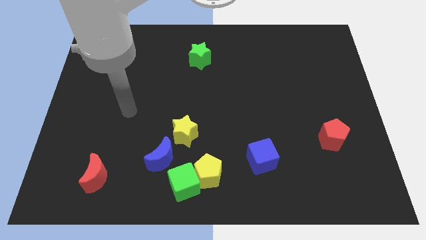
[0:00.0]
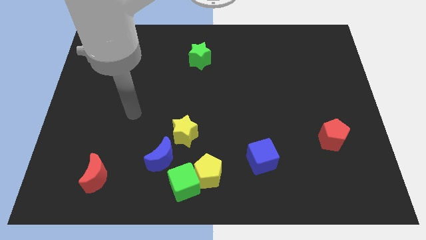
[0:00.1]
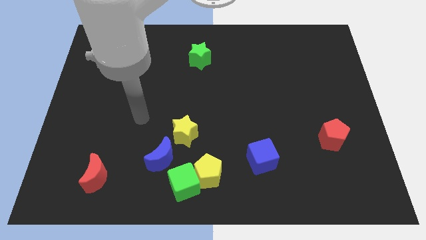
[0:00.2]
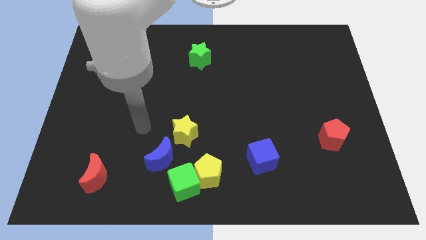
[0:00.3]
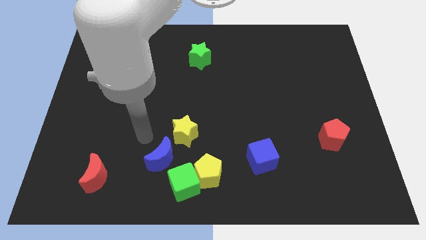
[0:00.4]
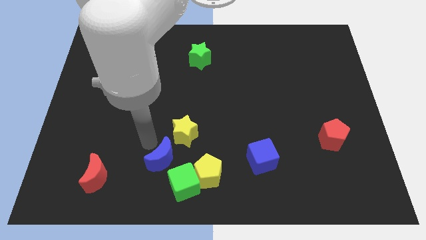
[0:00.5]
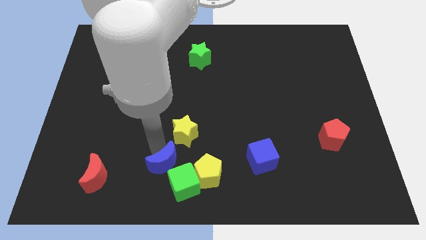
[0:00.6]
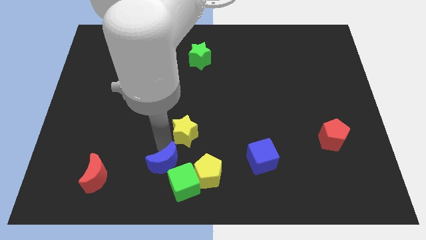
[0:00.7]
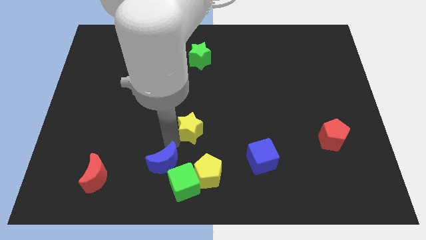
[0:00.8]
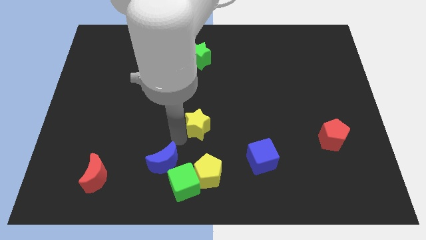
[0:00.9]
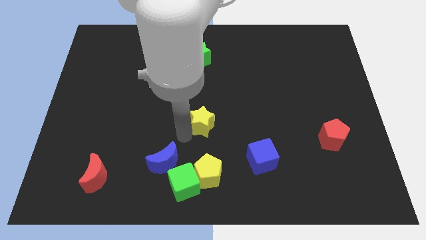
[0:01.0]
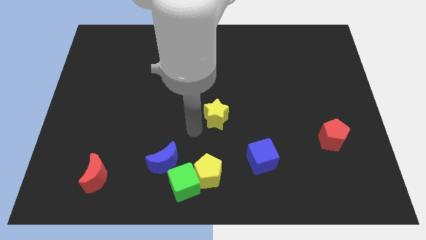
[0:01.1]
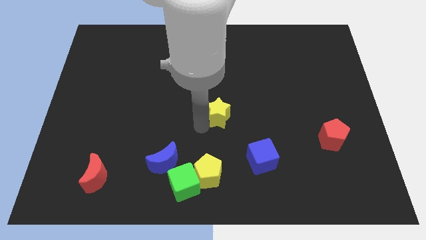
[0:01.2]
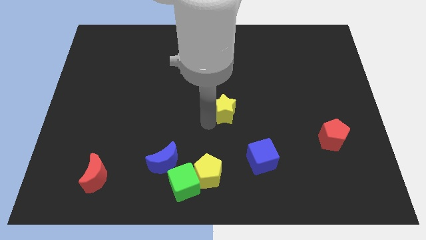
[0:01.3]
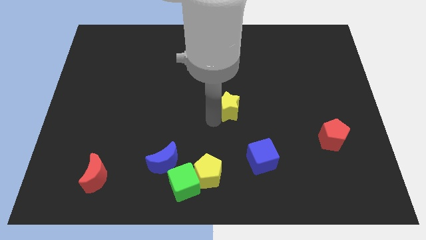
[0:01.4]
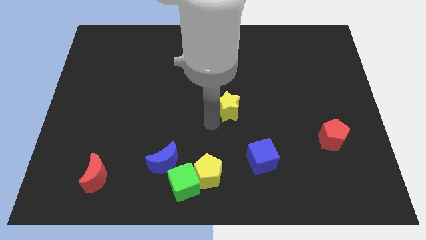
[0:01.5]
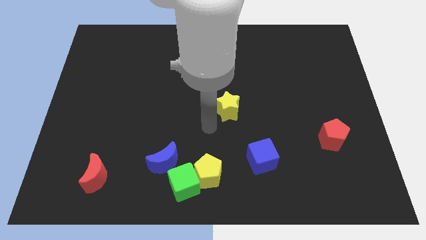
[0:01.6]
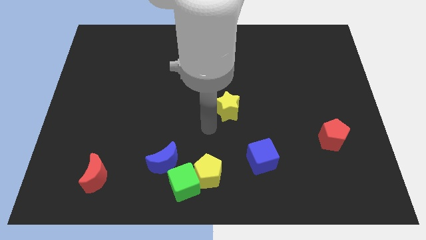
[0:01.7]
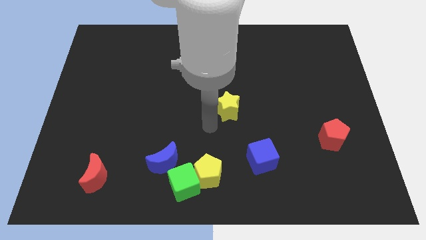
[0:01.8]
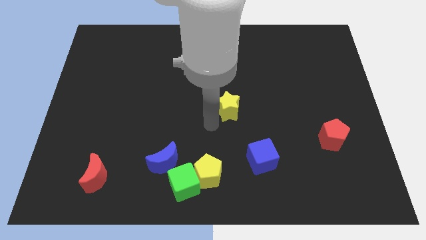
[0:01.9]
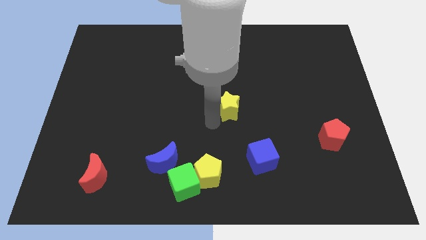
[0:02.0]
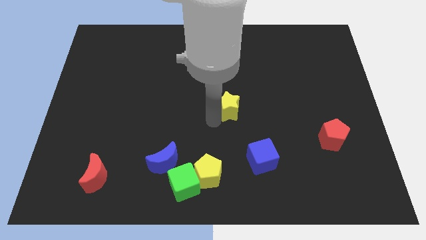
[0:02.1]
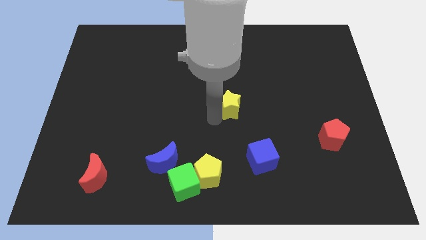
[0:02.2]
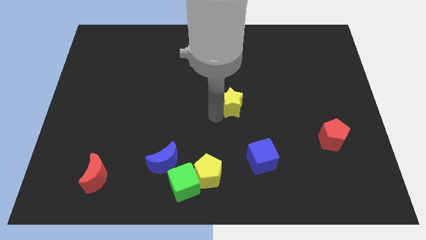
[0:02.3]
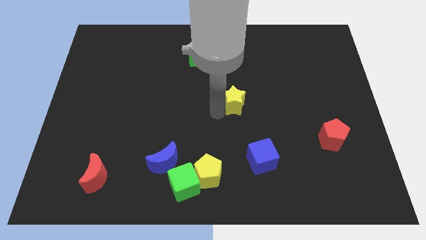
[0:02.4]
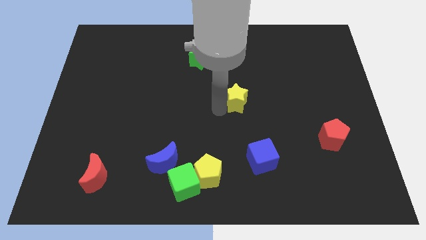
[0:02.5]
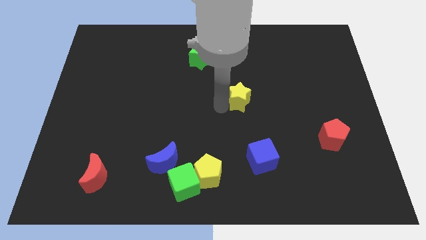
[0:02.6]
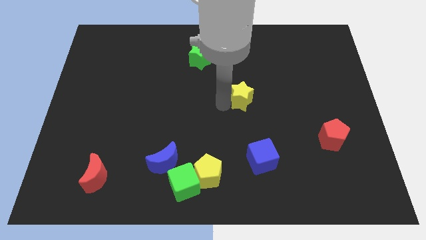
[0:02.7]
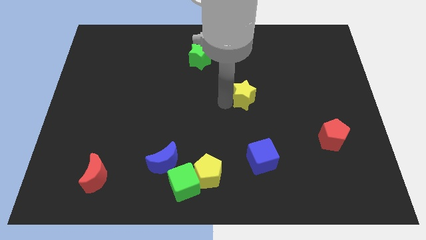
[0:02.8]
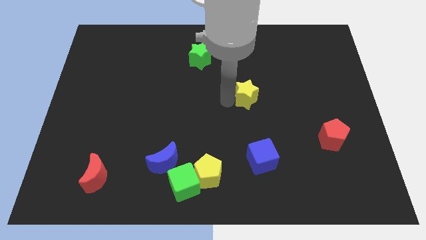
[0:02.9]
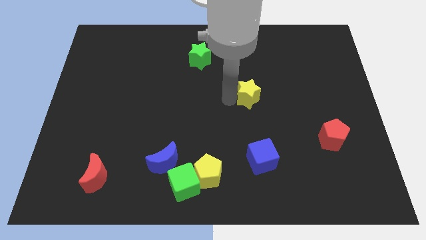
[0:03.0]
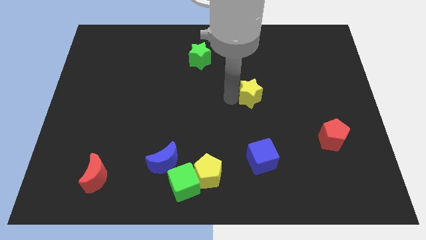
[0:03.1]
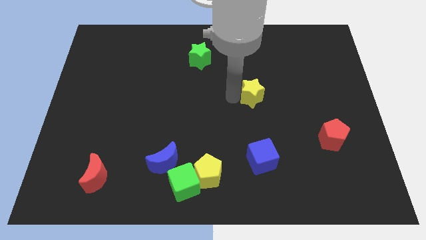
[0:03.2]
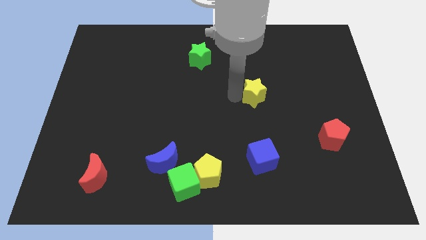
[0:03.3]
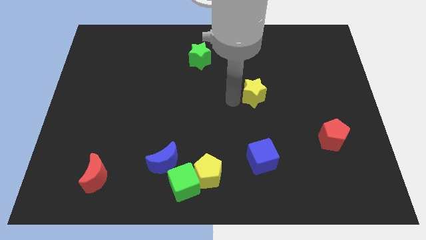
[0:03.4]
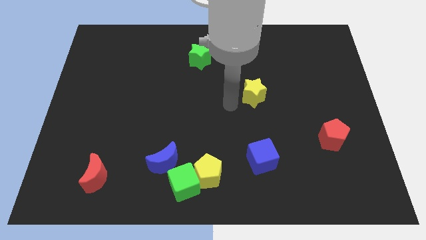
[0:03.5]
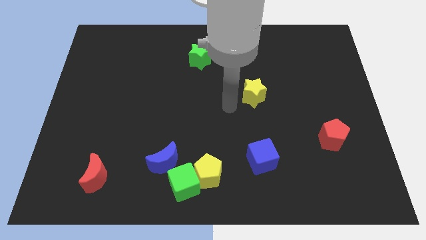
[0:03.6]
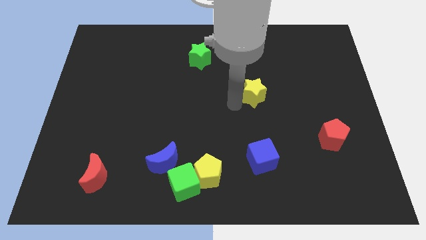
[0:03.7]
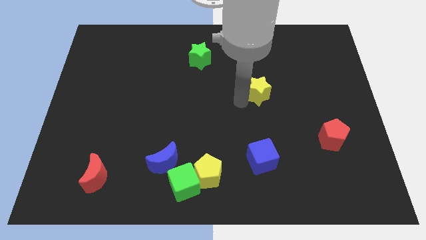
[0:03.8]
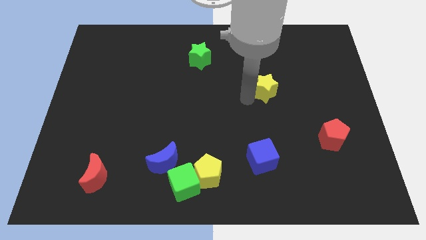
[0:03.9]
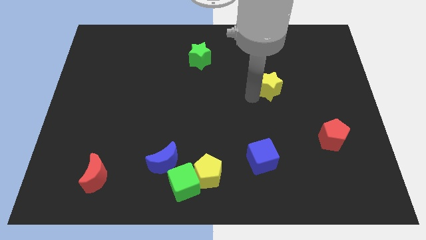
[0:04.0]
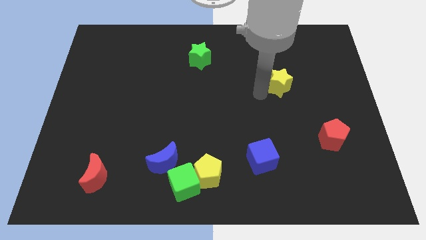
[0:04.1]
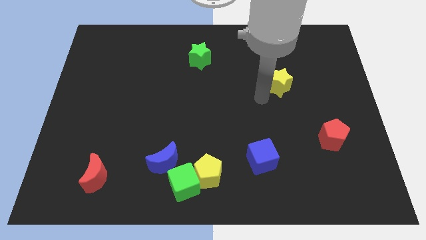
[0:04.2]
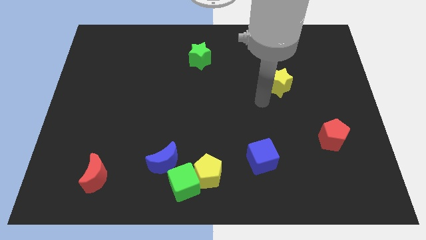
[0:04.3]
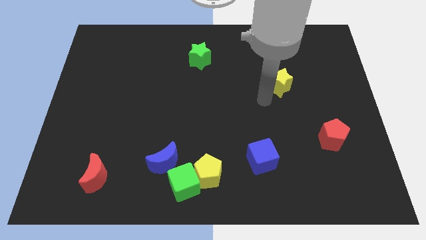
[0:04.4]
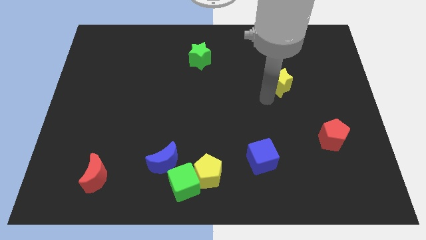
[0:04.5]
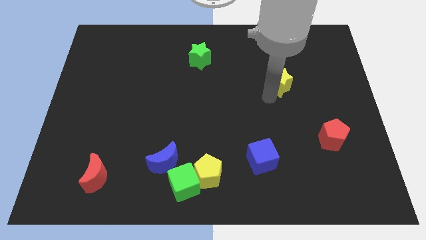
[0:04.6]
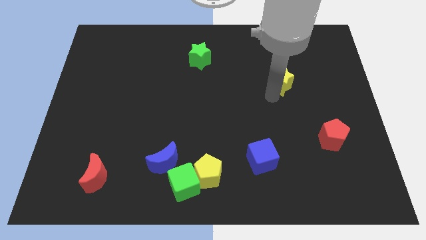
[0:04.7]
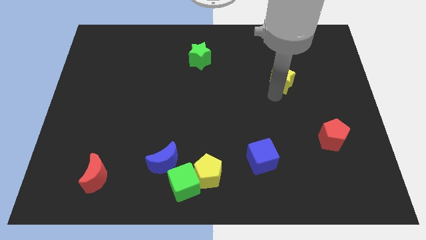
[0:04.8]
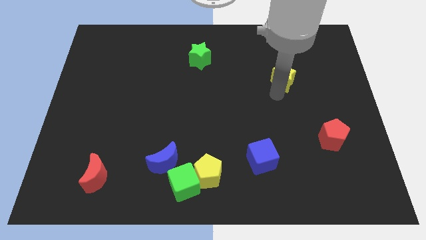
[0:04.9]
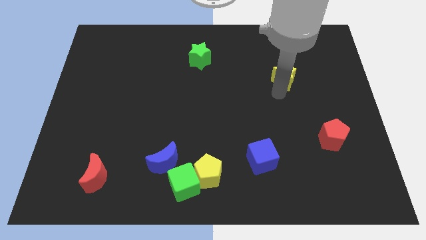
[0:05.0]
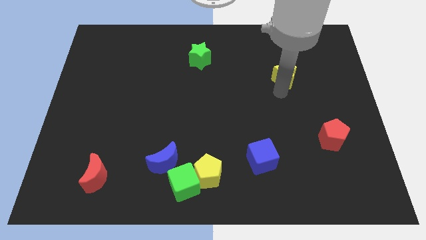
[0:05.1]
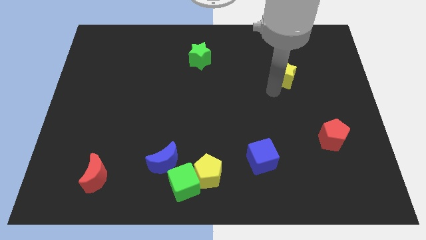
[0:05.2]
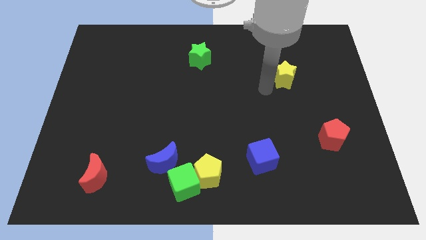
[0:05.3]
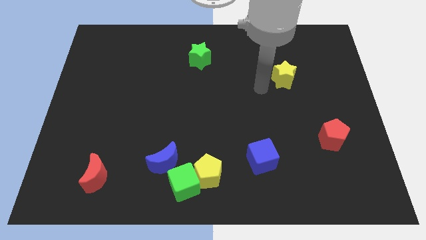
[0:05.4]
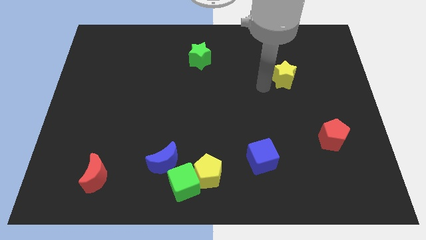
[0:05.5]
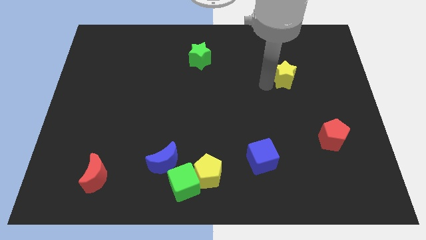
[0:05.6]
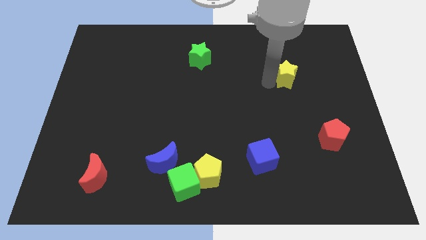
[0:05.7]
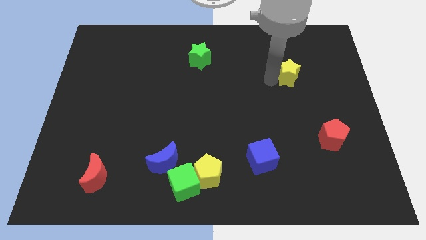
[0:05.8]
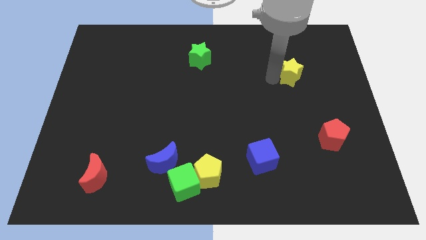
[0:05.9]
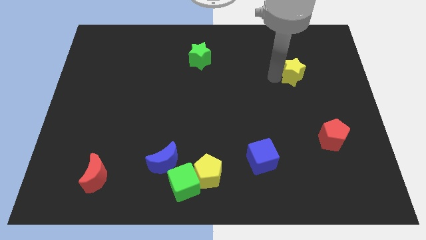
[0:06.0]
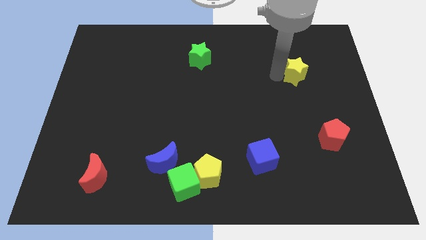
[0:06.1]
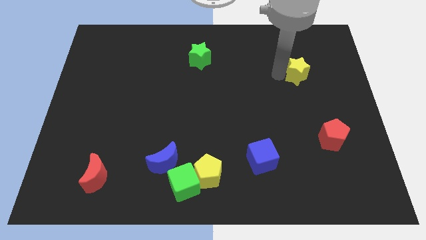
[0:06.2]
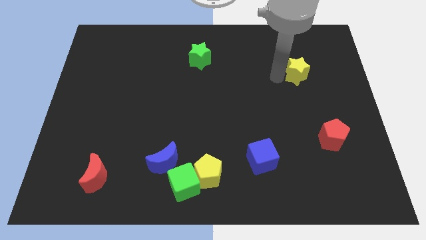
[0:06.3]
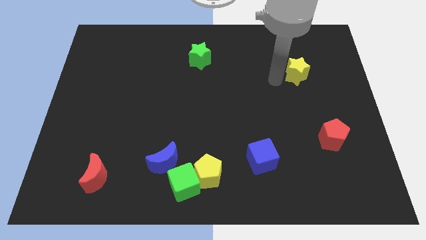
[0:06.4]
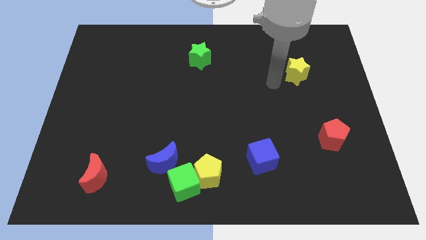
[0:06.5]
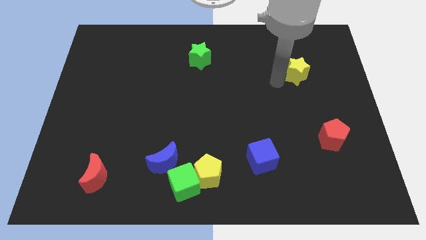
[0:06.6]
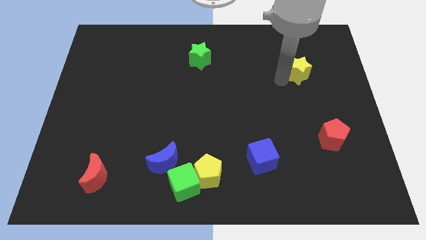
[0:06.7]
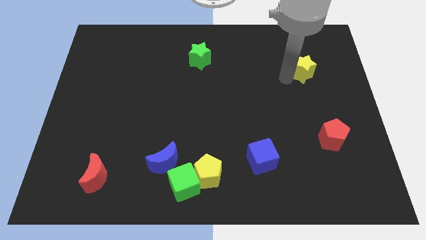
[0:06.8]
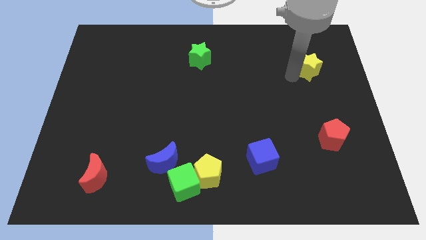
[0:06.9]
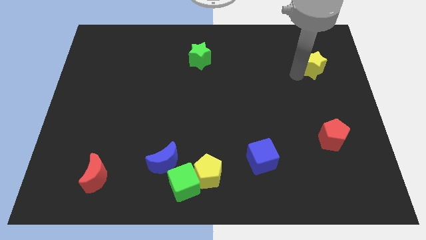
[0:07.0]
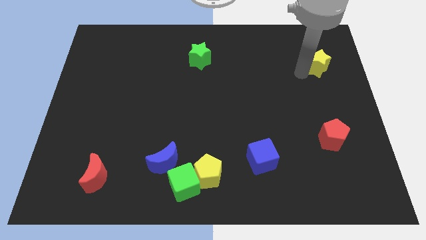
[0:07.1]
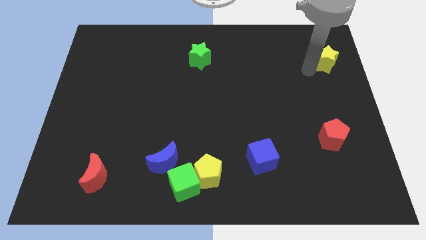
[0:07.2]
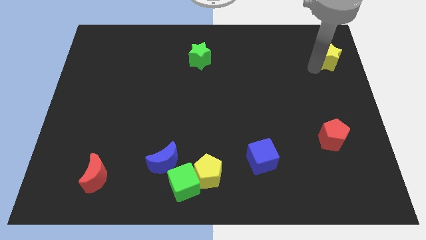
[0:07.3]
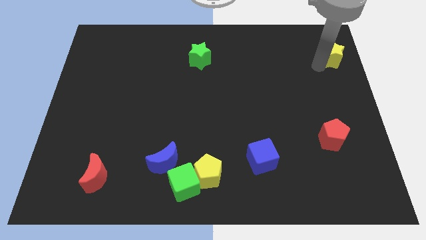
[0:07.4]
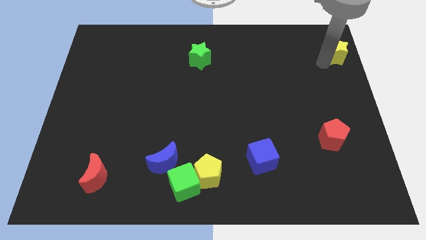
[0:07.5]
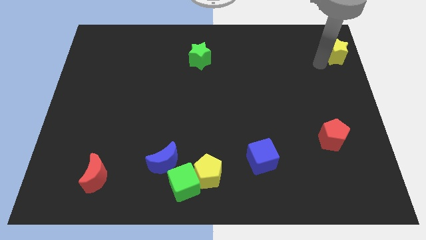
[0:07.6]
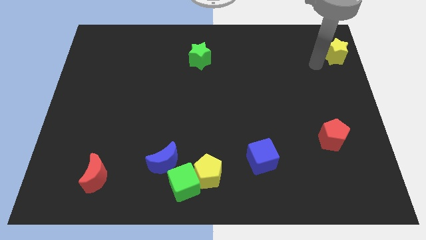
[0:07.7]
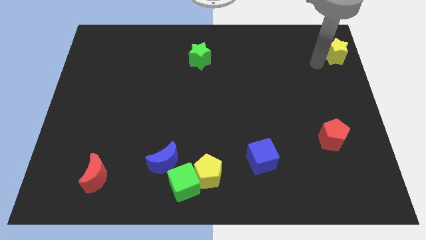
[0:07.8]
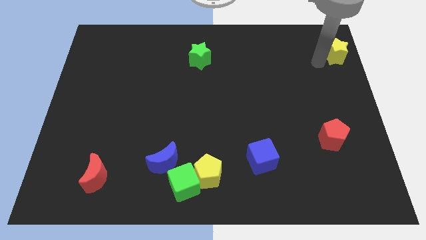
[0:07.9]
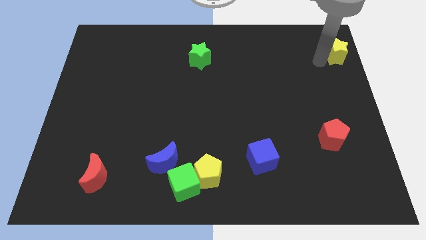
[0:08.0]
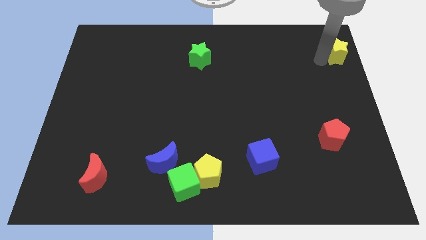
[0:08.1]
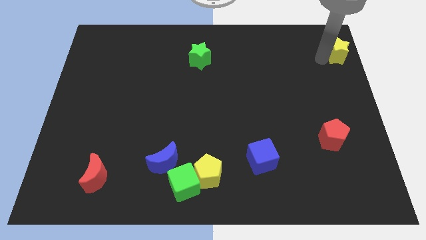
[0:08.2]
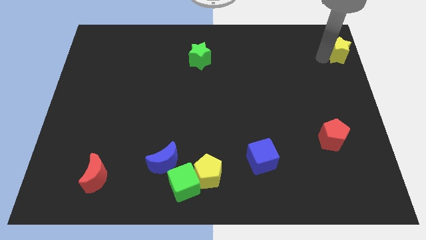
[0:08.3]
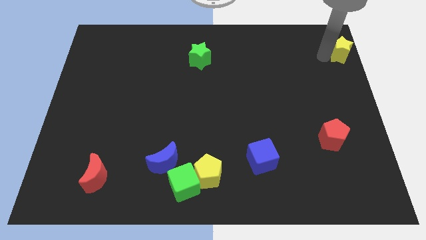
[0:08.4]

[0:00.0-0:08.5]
push the yellow star to the top right corner
